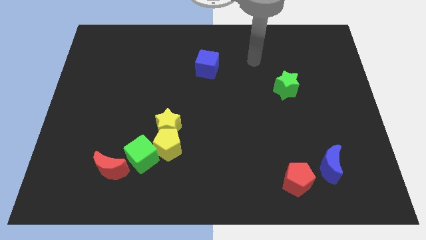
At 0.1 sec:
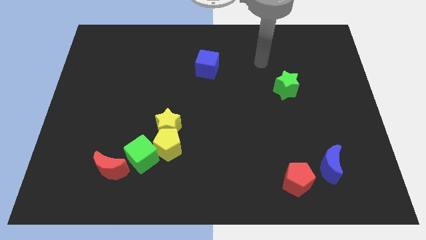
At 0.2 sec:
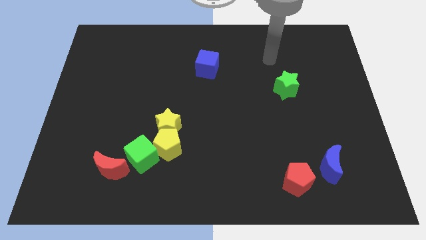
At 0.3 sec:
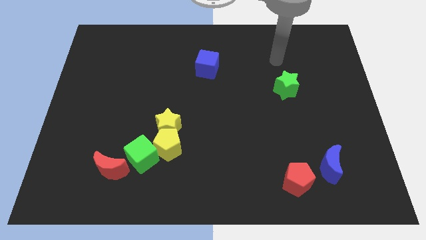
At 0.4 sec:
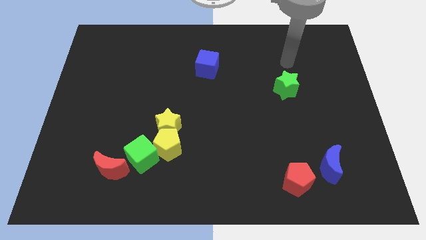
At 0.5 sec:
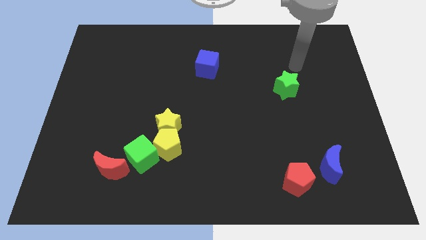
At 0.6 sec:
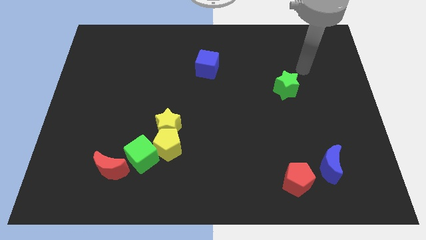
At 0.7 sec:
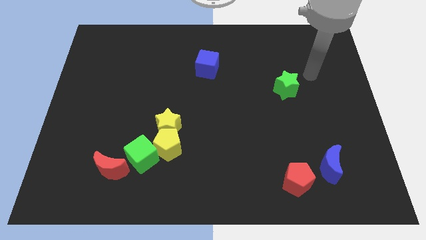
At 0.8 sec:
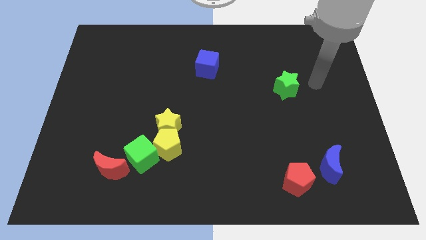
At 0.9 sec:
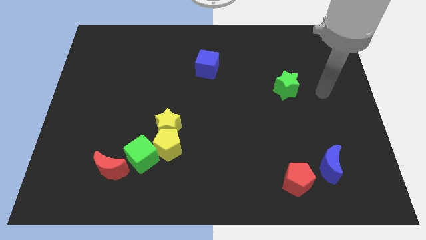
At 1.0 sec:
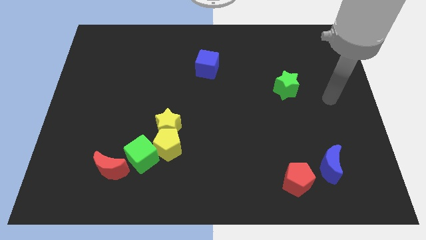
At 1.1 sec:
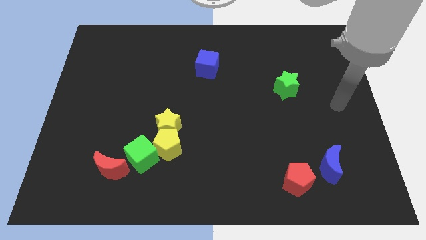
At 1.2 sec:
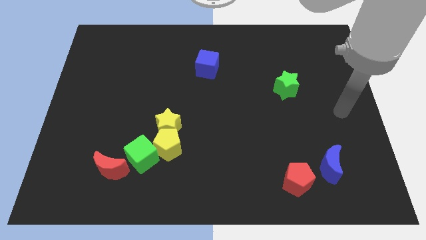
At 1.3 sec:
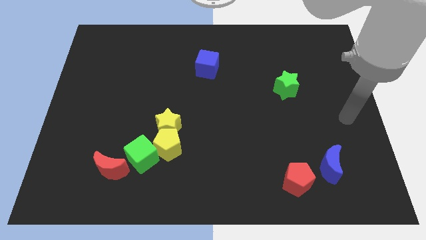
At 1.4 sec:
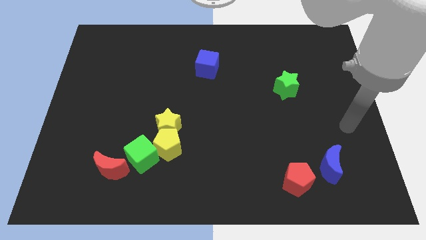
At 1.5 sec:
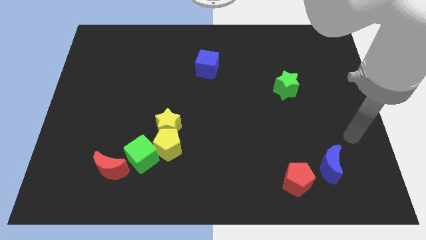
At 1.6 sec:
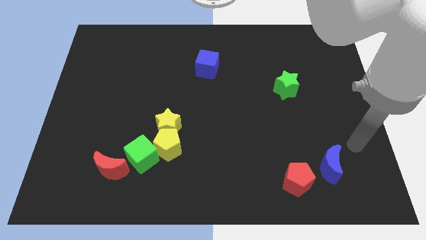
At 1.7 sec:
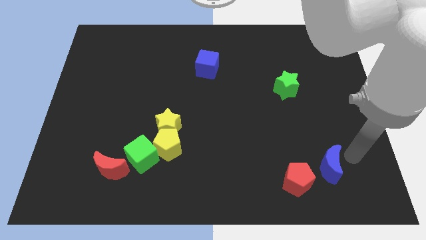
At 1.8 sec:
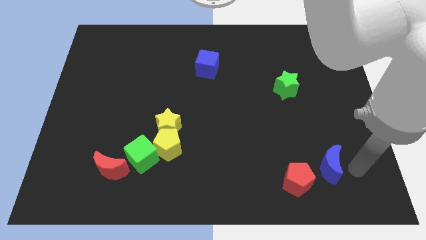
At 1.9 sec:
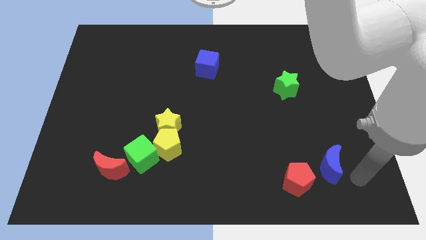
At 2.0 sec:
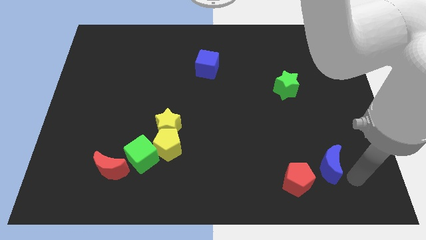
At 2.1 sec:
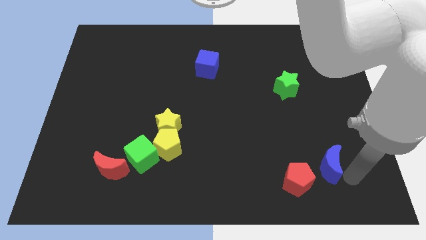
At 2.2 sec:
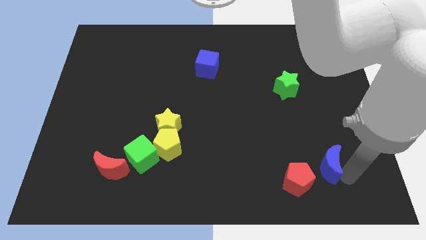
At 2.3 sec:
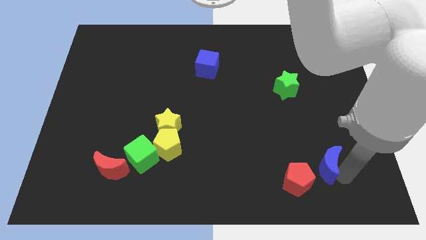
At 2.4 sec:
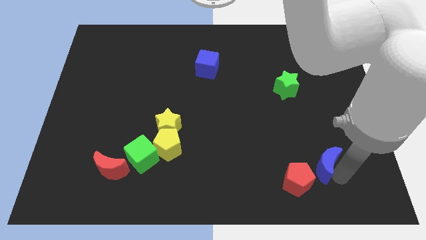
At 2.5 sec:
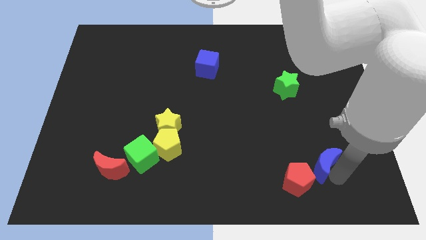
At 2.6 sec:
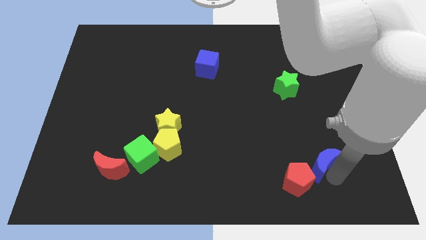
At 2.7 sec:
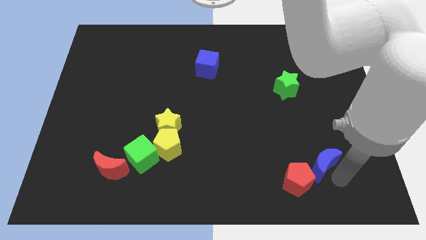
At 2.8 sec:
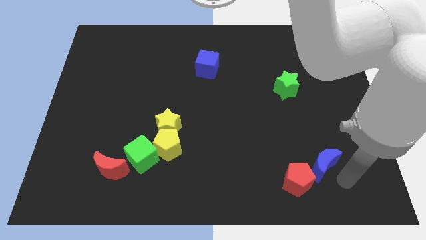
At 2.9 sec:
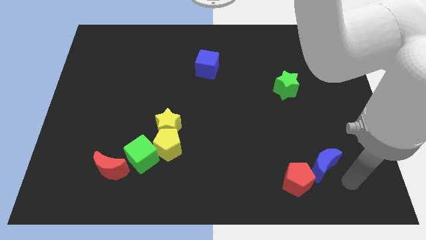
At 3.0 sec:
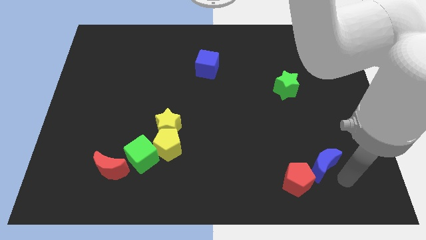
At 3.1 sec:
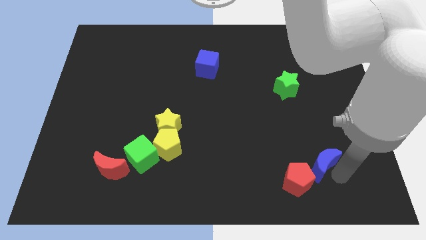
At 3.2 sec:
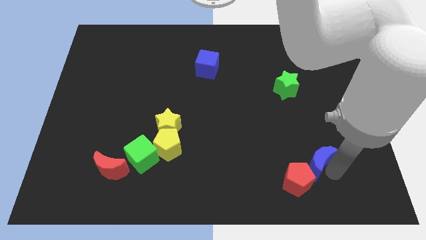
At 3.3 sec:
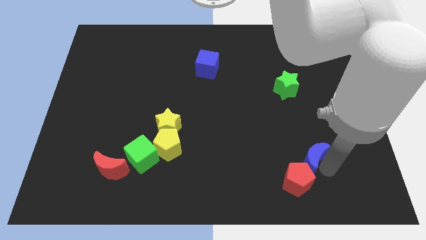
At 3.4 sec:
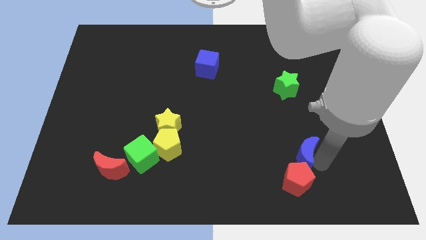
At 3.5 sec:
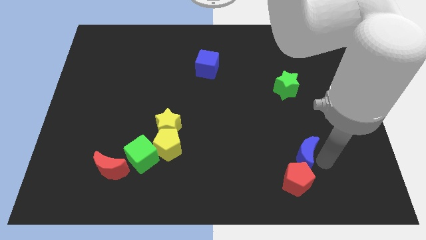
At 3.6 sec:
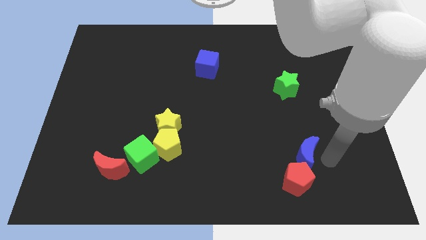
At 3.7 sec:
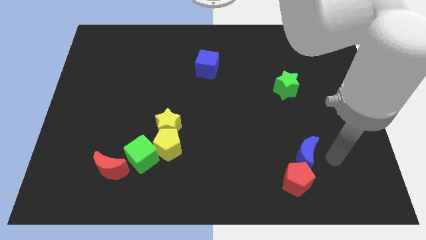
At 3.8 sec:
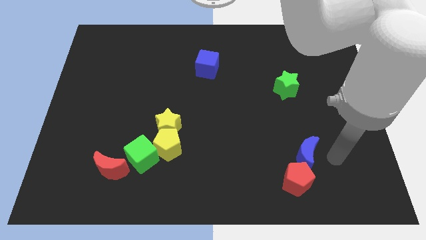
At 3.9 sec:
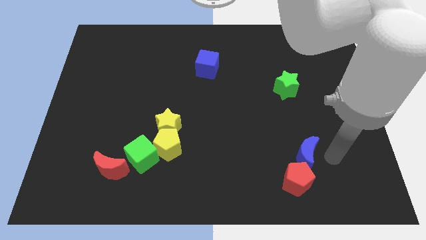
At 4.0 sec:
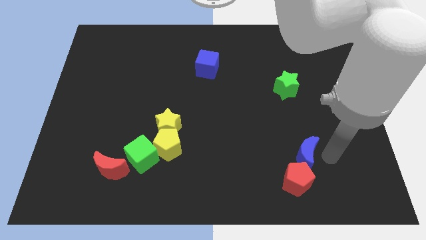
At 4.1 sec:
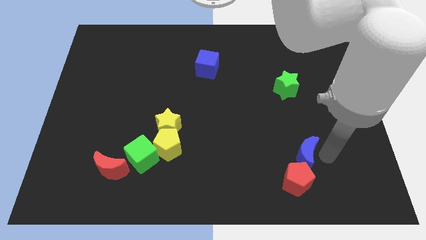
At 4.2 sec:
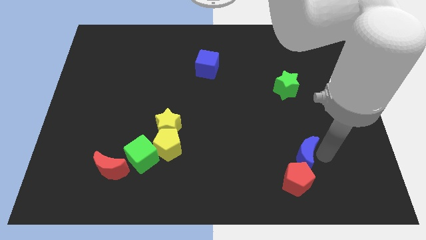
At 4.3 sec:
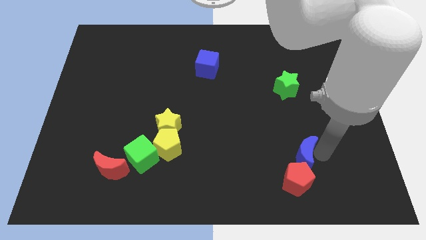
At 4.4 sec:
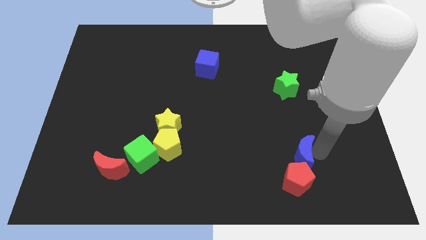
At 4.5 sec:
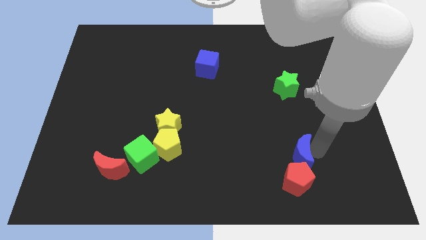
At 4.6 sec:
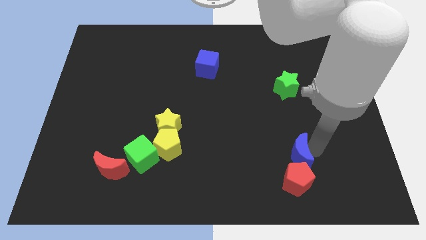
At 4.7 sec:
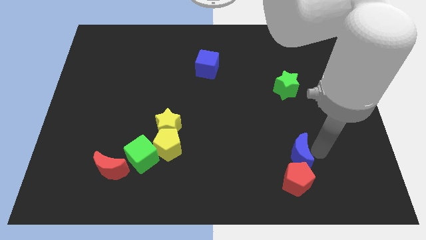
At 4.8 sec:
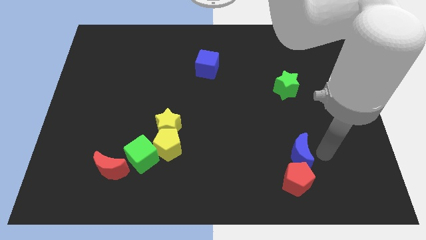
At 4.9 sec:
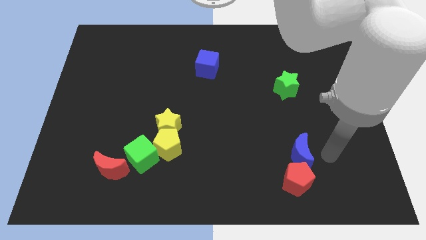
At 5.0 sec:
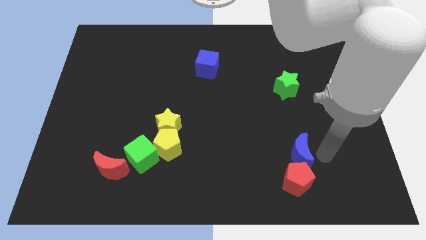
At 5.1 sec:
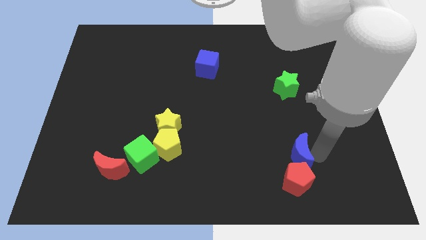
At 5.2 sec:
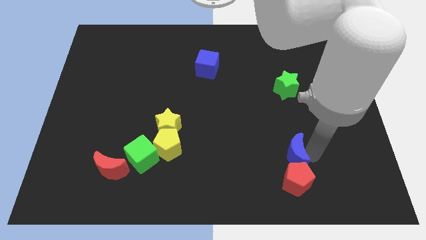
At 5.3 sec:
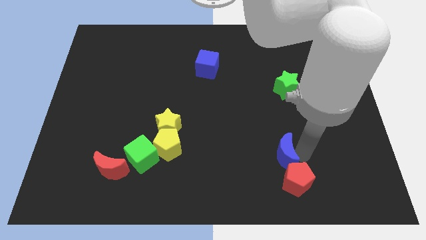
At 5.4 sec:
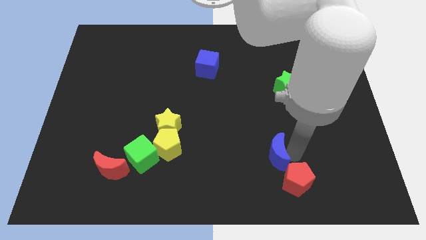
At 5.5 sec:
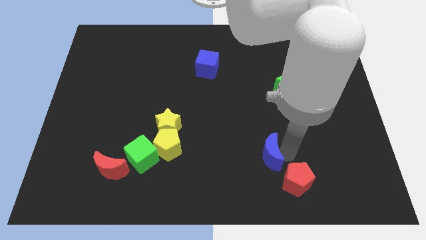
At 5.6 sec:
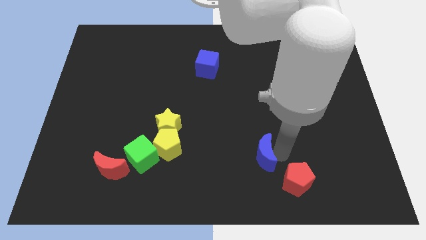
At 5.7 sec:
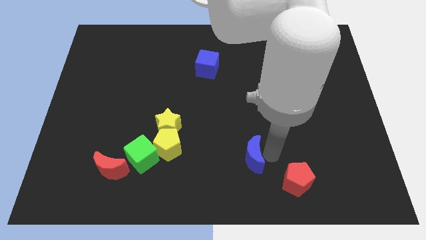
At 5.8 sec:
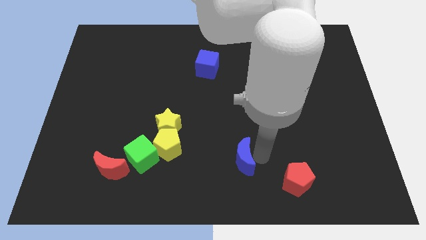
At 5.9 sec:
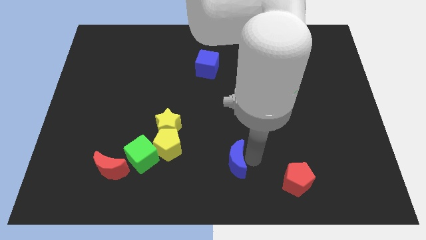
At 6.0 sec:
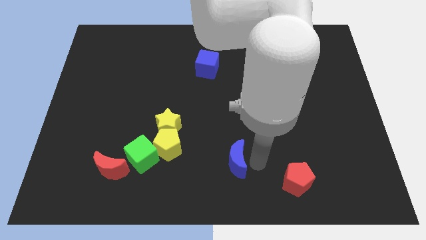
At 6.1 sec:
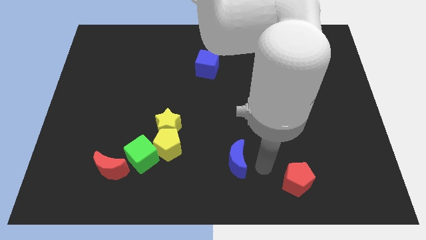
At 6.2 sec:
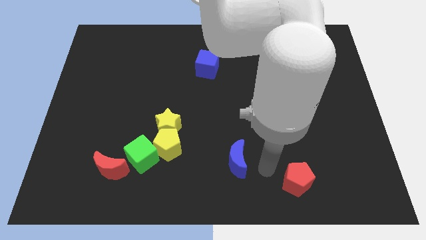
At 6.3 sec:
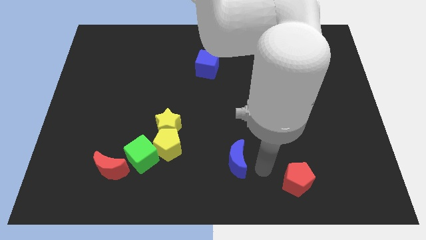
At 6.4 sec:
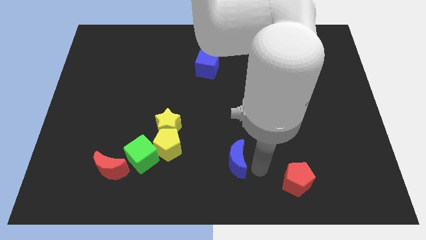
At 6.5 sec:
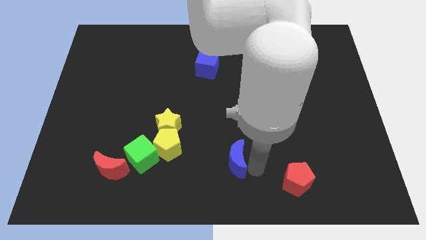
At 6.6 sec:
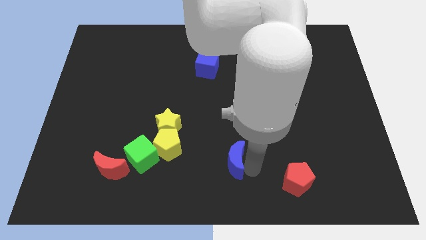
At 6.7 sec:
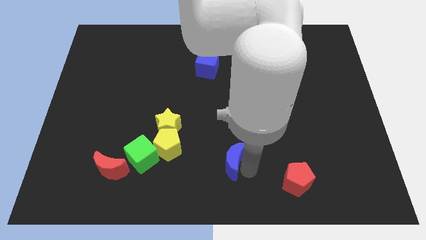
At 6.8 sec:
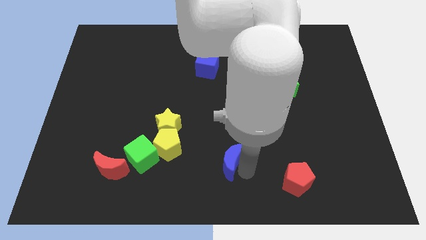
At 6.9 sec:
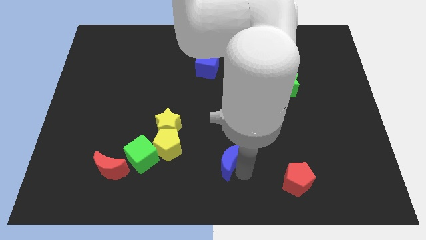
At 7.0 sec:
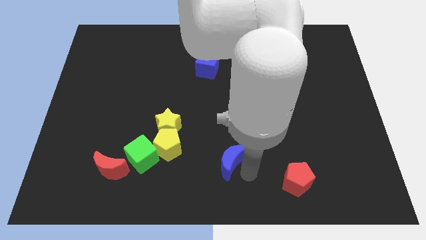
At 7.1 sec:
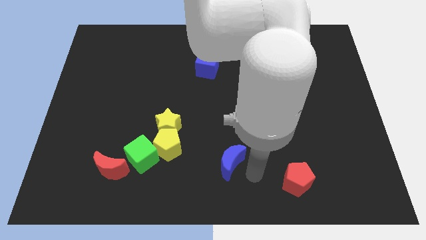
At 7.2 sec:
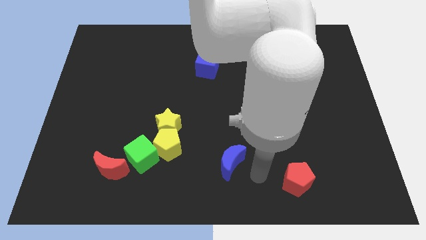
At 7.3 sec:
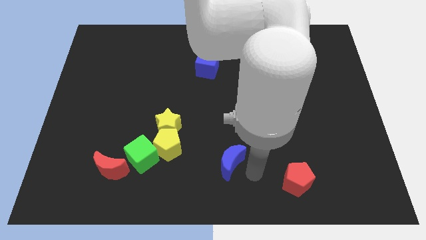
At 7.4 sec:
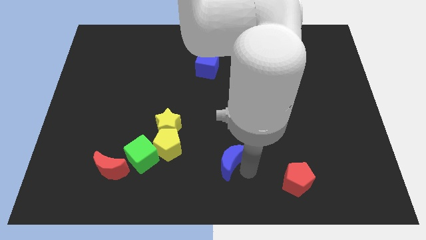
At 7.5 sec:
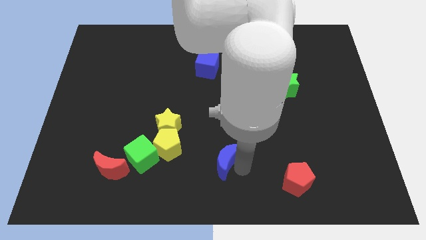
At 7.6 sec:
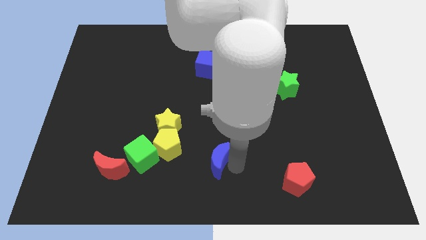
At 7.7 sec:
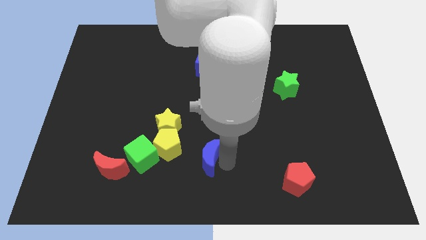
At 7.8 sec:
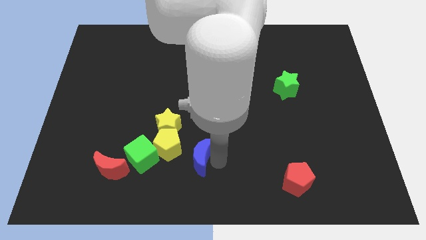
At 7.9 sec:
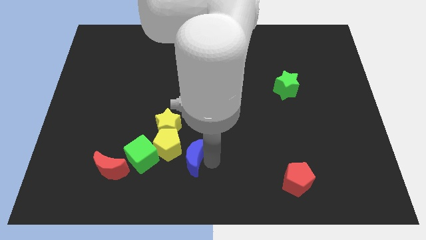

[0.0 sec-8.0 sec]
push the blue moon close to the yellow pentagon

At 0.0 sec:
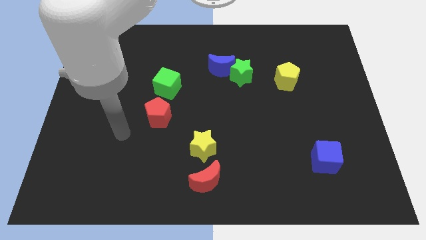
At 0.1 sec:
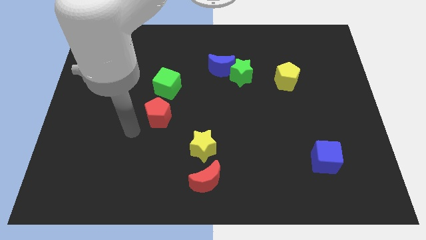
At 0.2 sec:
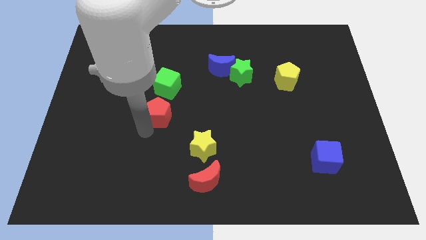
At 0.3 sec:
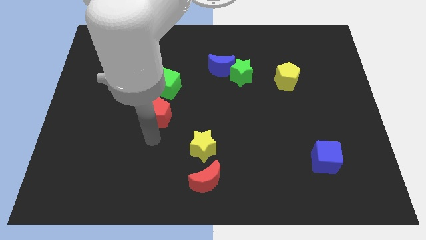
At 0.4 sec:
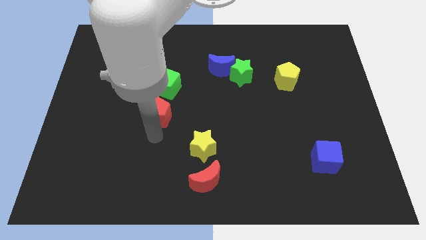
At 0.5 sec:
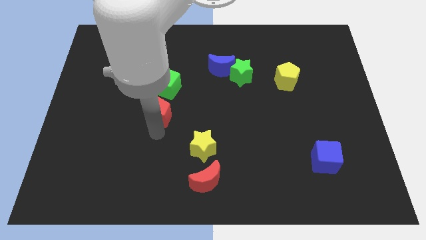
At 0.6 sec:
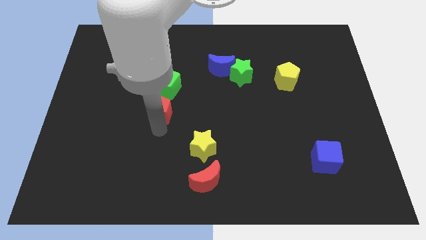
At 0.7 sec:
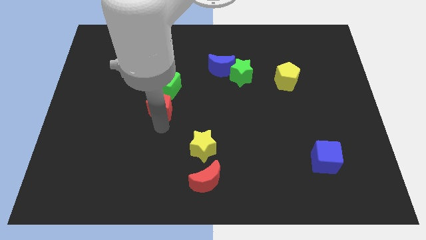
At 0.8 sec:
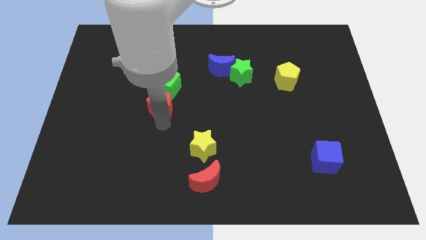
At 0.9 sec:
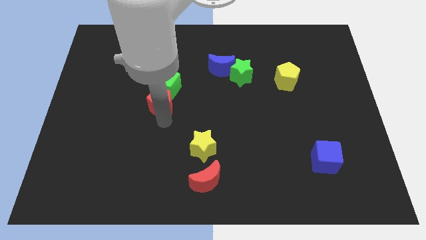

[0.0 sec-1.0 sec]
put the red pentagon to the green cube
